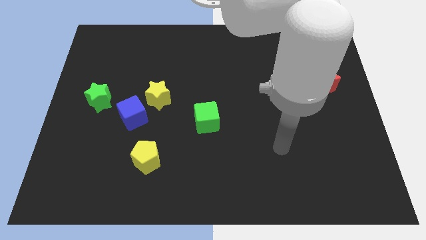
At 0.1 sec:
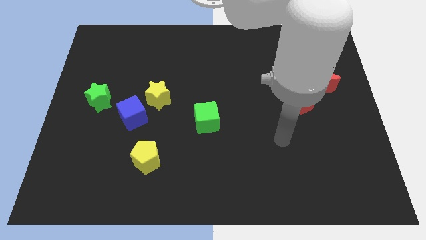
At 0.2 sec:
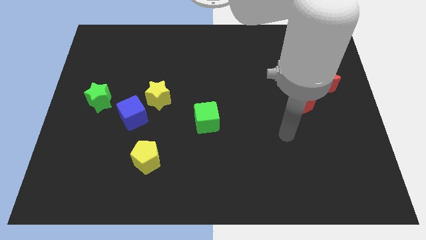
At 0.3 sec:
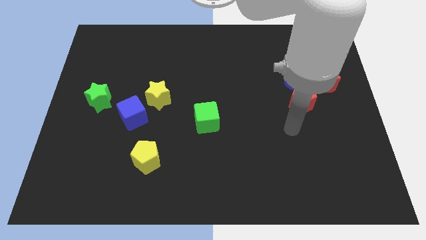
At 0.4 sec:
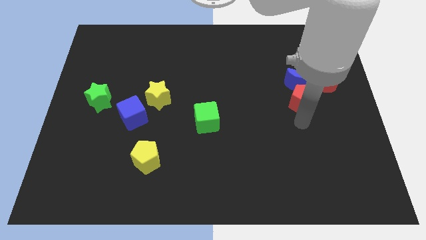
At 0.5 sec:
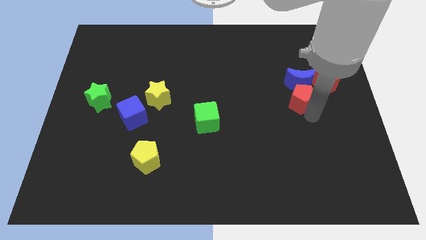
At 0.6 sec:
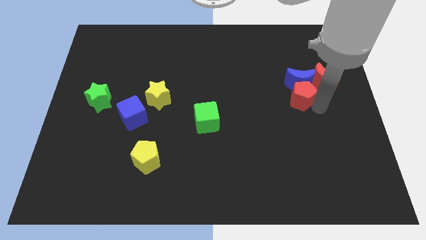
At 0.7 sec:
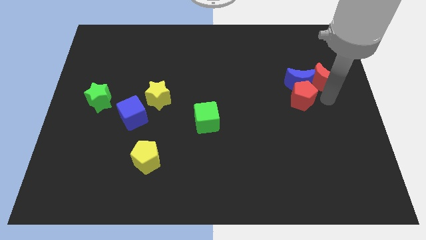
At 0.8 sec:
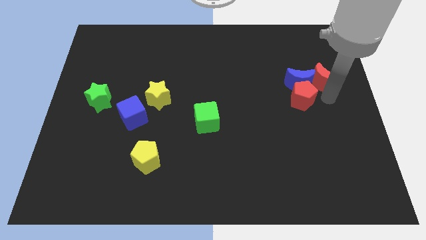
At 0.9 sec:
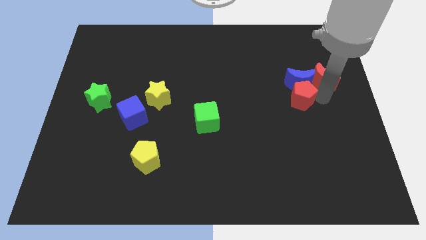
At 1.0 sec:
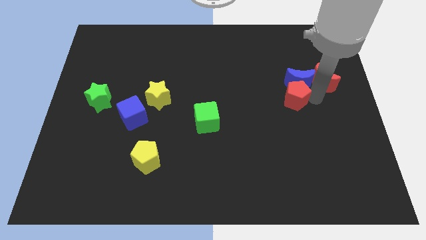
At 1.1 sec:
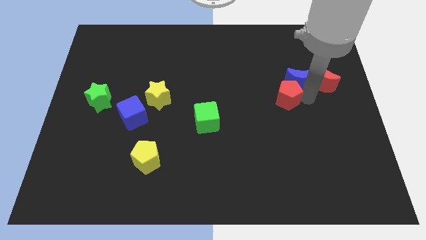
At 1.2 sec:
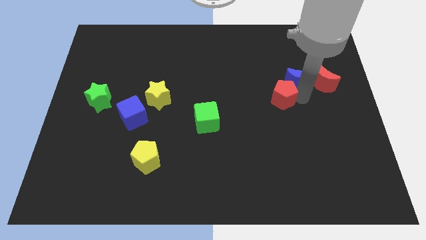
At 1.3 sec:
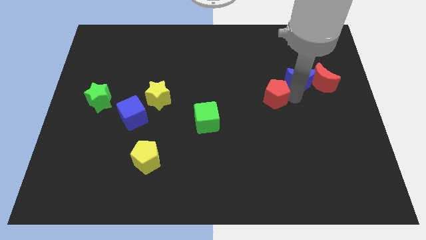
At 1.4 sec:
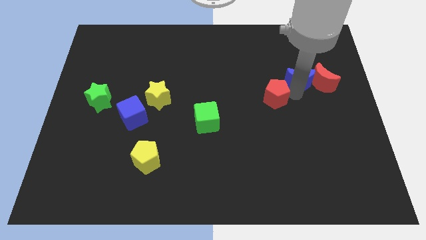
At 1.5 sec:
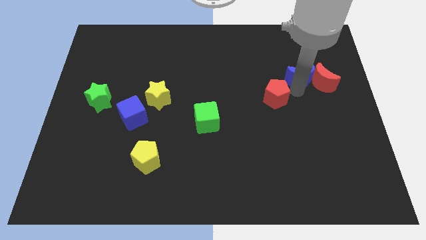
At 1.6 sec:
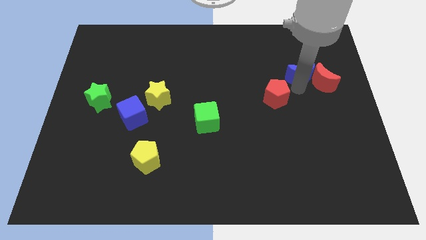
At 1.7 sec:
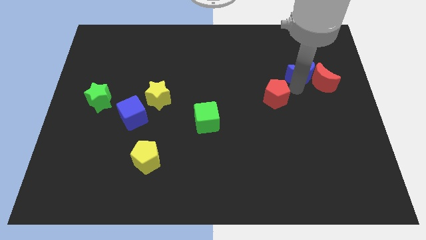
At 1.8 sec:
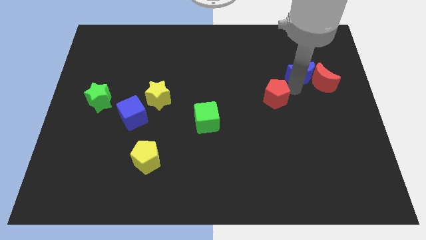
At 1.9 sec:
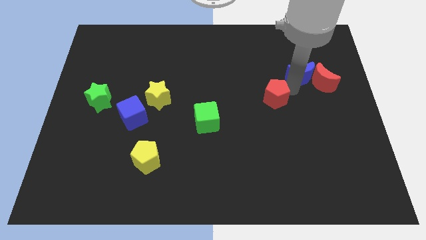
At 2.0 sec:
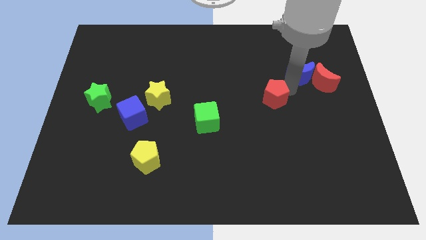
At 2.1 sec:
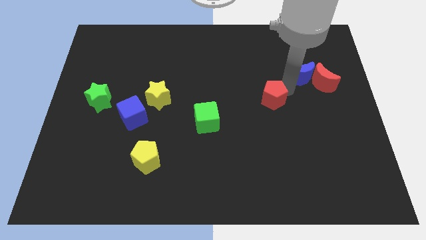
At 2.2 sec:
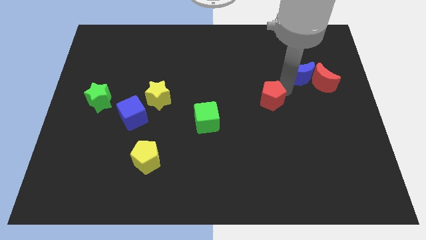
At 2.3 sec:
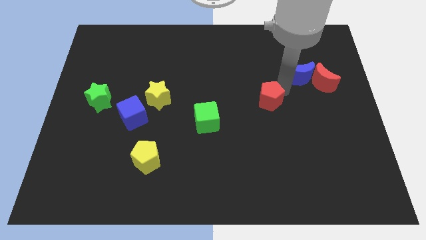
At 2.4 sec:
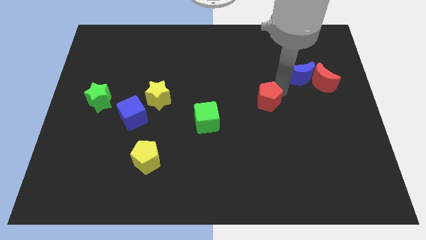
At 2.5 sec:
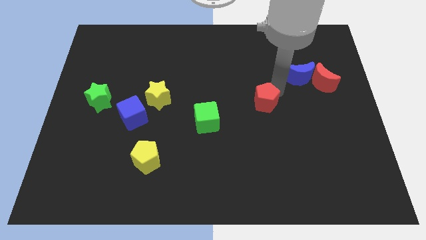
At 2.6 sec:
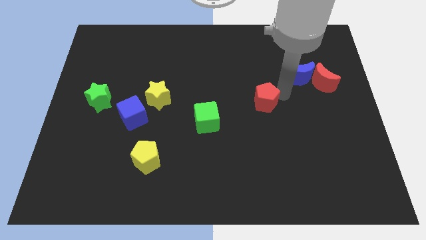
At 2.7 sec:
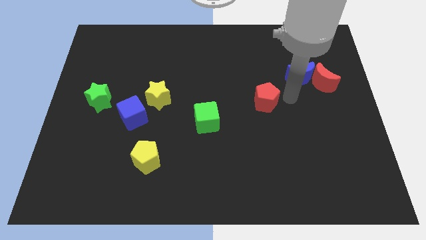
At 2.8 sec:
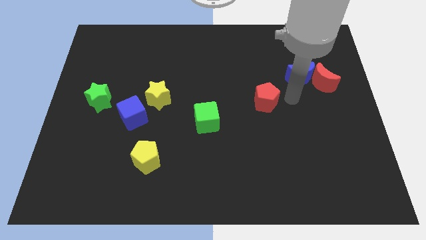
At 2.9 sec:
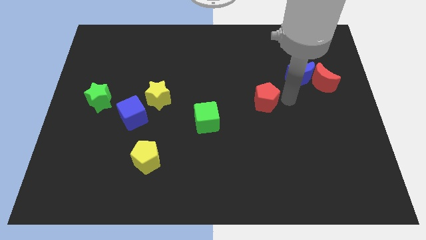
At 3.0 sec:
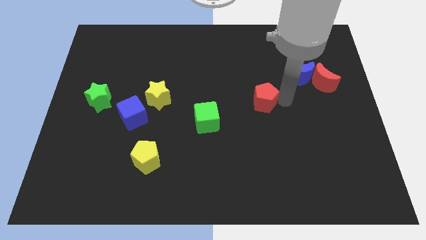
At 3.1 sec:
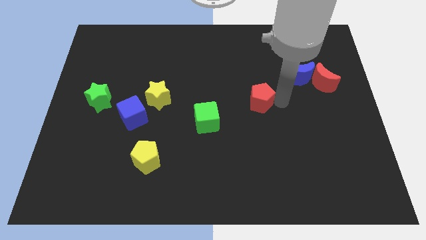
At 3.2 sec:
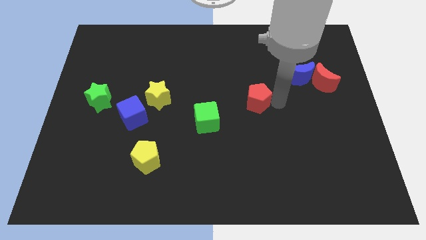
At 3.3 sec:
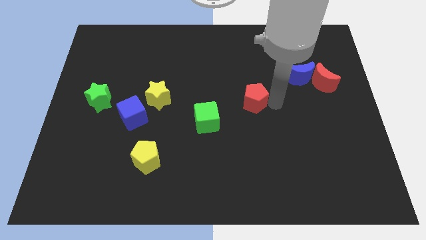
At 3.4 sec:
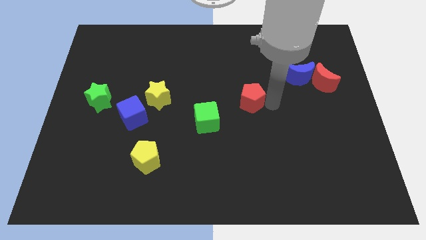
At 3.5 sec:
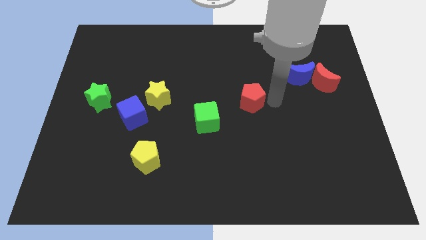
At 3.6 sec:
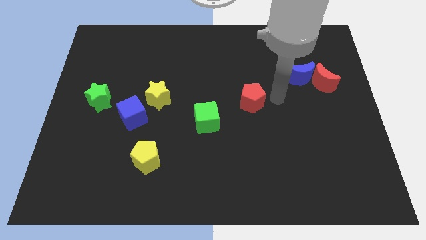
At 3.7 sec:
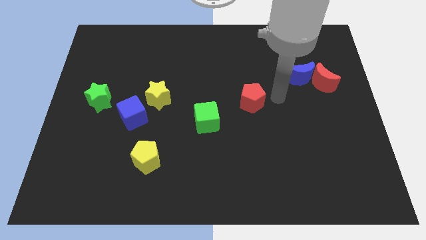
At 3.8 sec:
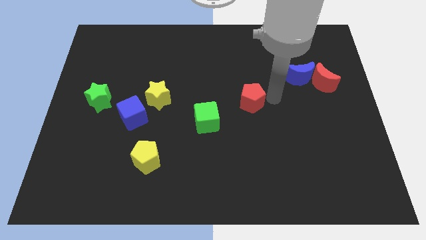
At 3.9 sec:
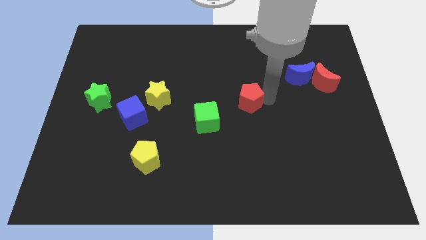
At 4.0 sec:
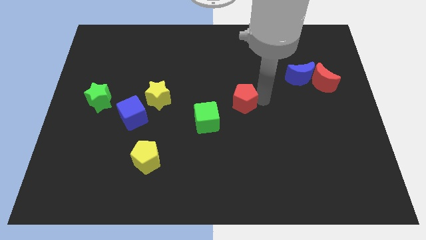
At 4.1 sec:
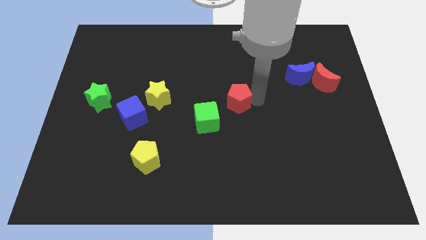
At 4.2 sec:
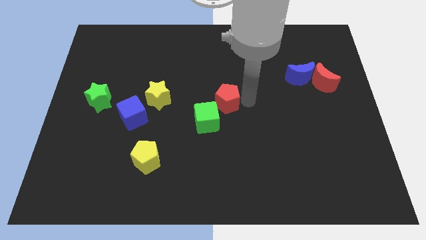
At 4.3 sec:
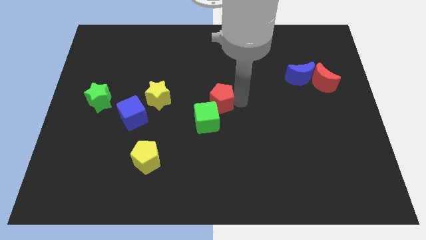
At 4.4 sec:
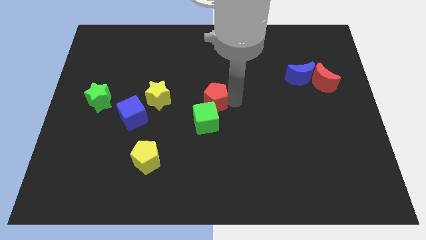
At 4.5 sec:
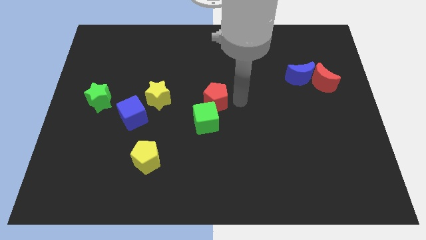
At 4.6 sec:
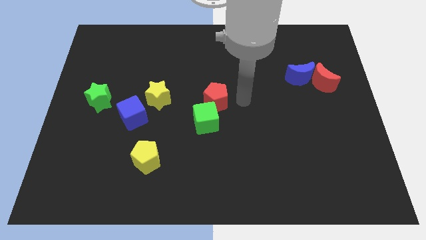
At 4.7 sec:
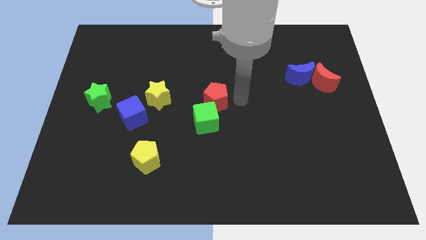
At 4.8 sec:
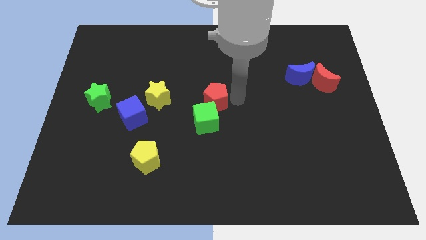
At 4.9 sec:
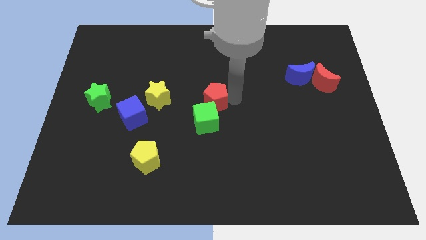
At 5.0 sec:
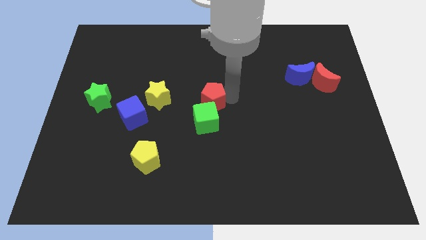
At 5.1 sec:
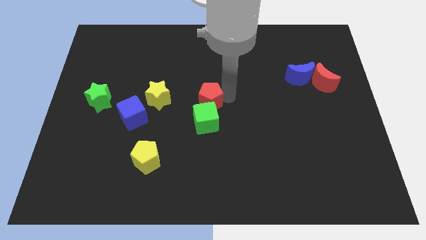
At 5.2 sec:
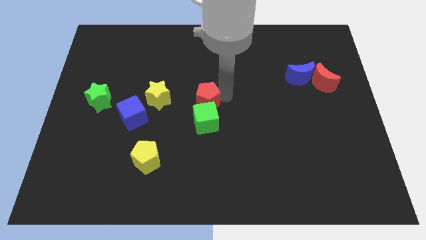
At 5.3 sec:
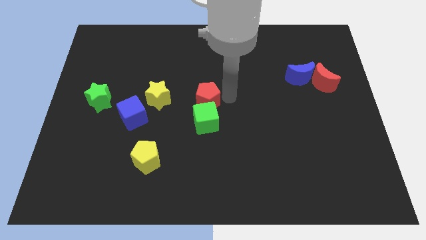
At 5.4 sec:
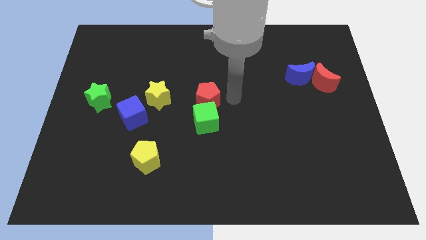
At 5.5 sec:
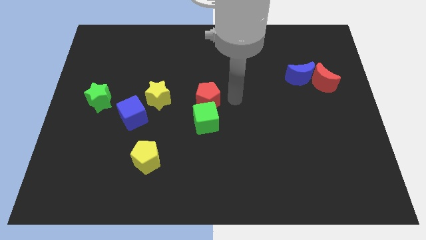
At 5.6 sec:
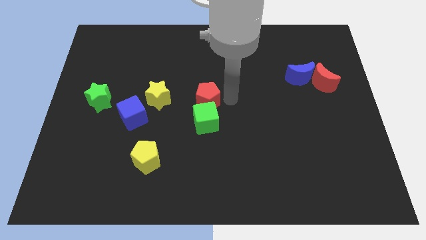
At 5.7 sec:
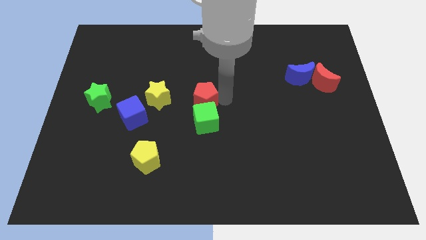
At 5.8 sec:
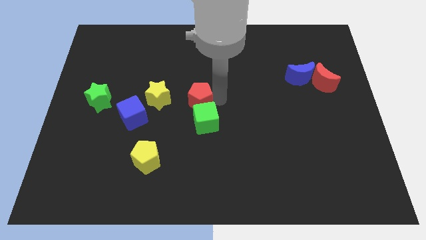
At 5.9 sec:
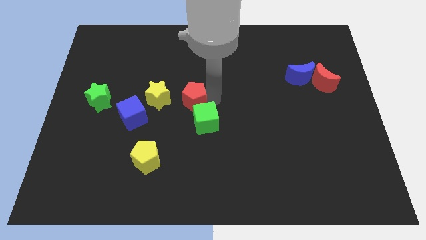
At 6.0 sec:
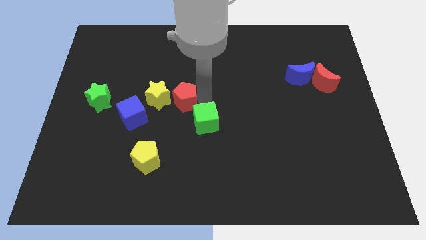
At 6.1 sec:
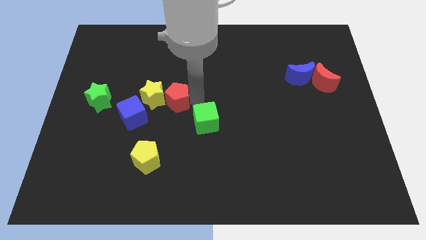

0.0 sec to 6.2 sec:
push the red pentagon next to the yellow star

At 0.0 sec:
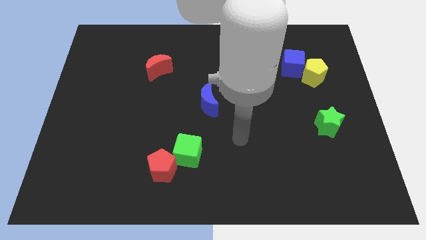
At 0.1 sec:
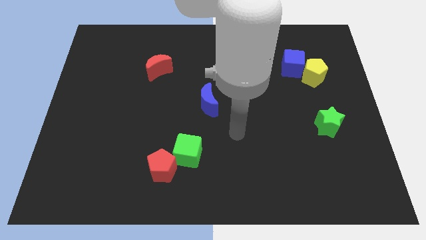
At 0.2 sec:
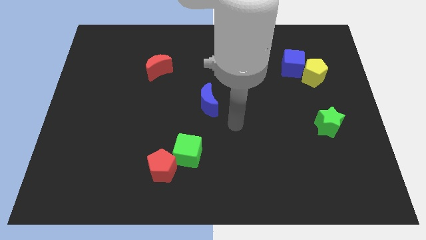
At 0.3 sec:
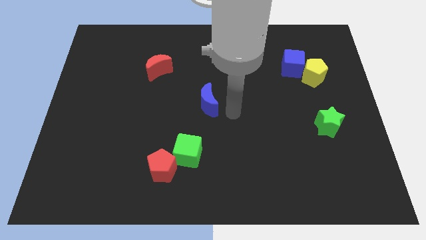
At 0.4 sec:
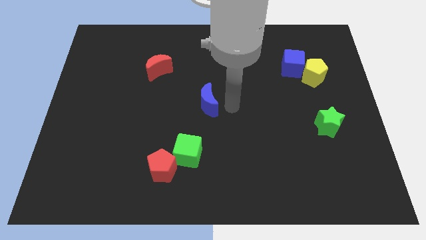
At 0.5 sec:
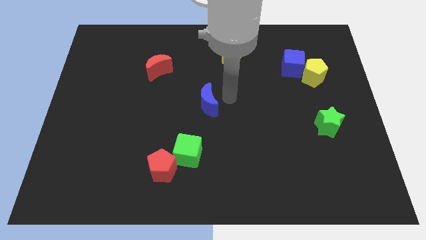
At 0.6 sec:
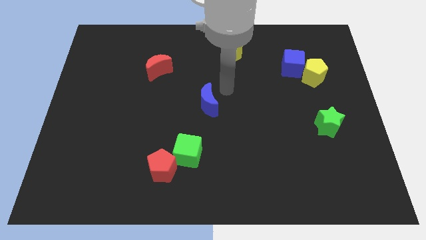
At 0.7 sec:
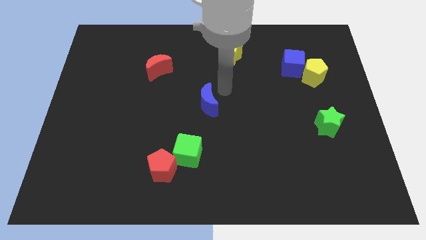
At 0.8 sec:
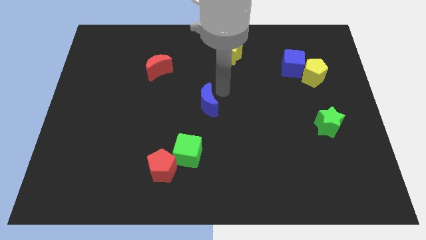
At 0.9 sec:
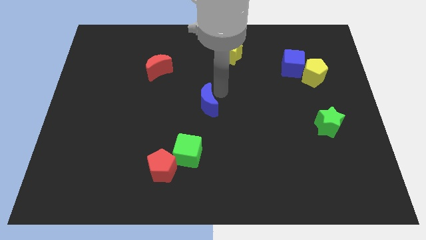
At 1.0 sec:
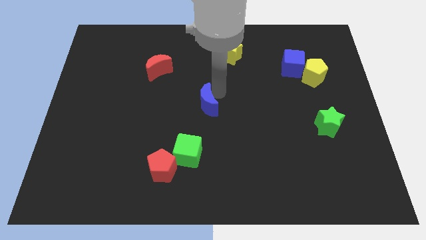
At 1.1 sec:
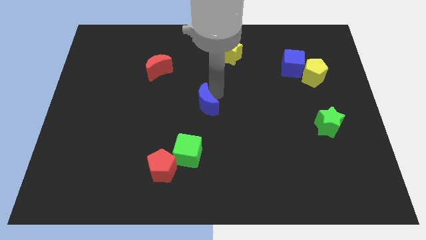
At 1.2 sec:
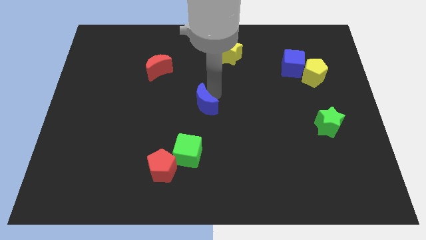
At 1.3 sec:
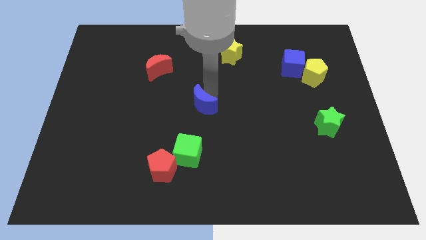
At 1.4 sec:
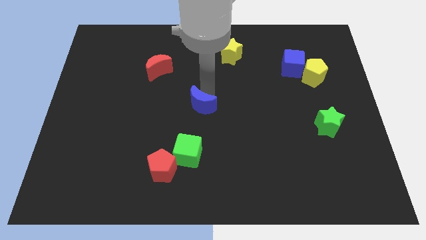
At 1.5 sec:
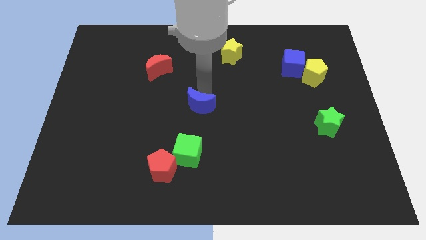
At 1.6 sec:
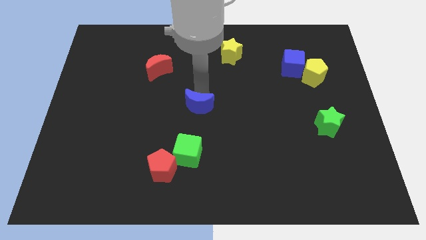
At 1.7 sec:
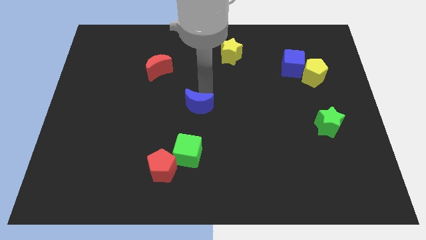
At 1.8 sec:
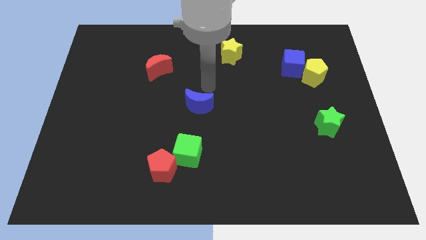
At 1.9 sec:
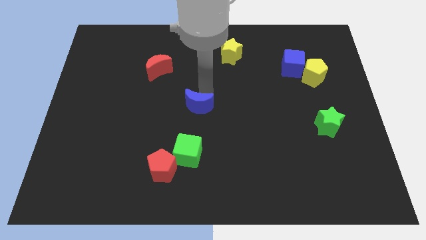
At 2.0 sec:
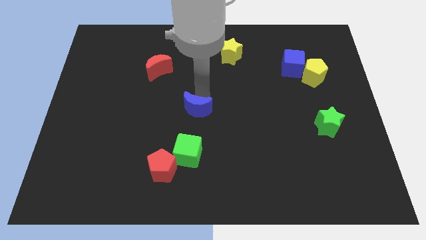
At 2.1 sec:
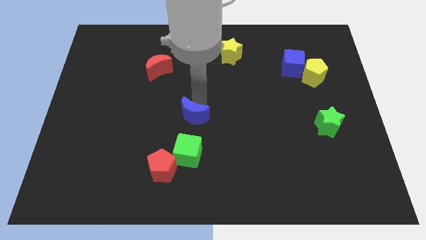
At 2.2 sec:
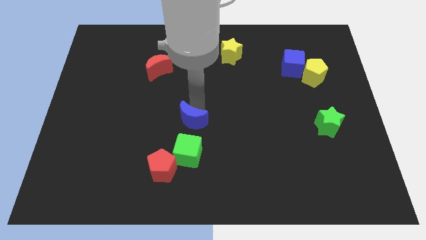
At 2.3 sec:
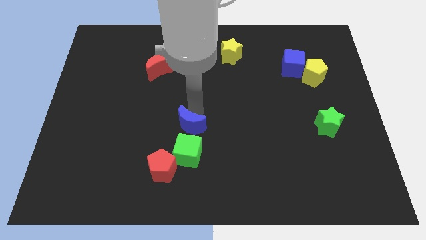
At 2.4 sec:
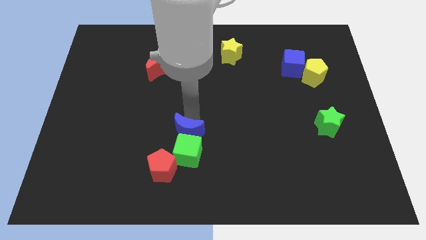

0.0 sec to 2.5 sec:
move the blue moon next to the green cube
